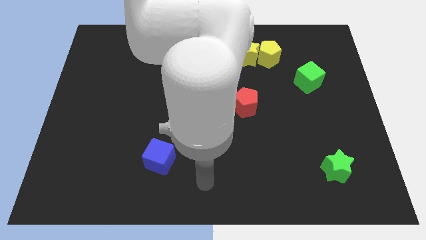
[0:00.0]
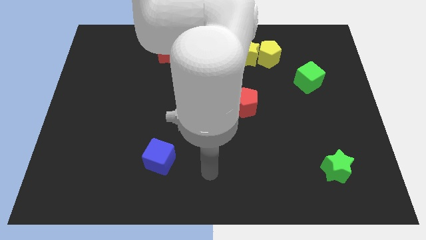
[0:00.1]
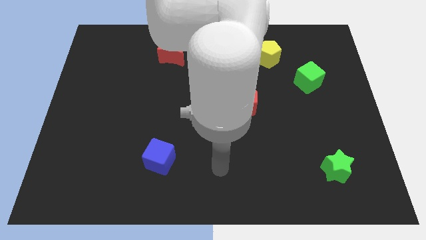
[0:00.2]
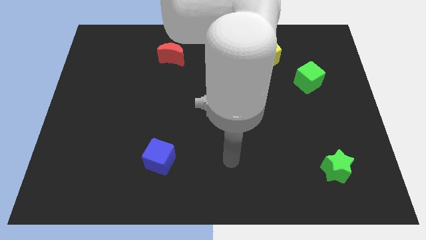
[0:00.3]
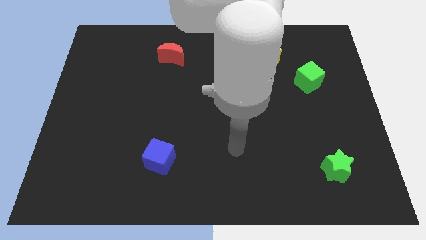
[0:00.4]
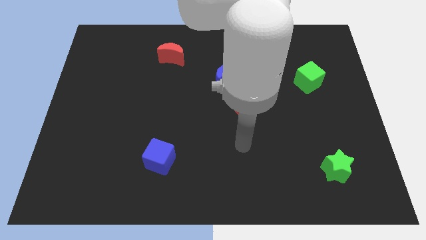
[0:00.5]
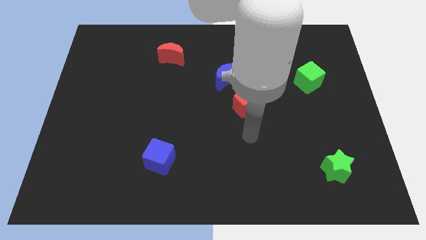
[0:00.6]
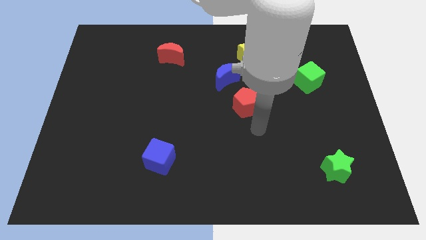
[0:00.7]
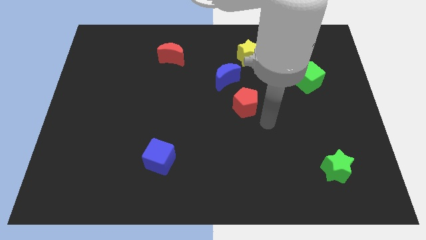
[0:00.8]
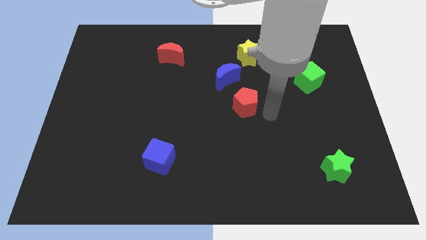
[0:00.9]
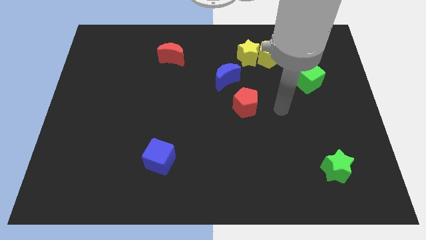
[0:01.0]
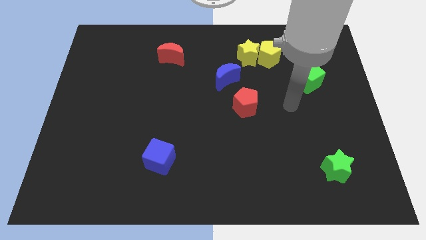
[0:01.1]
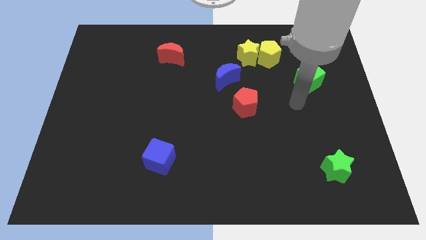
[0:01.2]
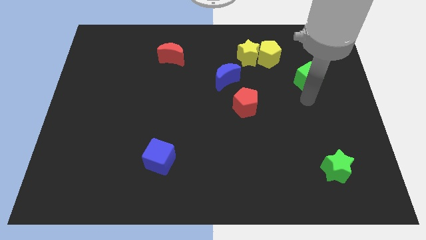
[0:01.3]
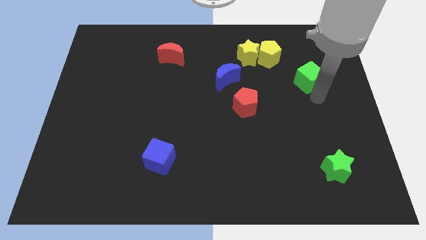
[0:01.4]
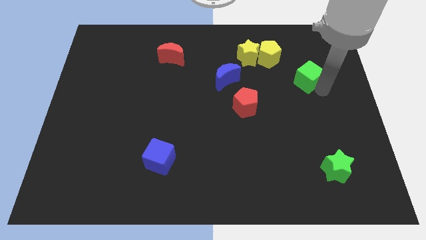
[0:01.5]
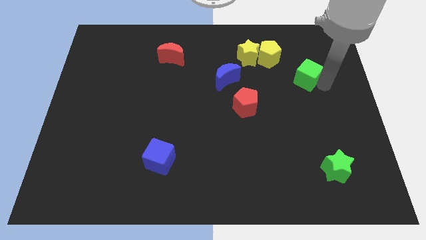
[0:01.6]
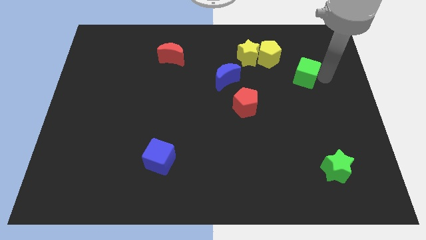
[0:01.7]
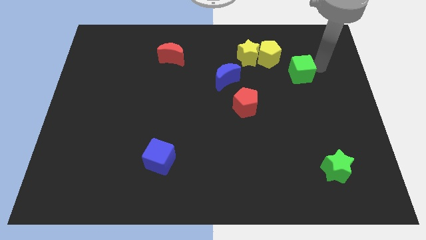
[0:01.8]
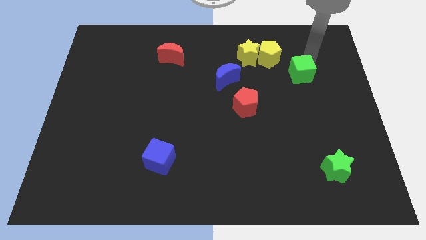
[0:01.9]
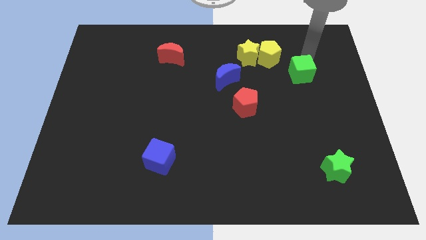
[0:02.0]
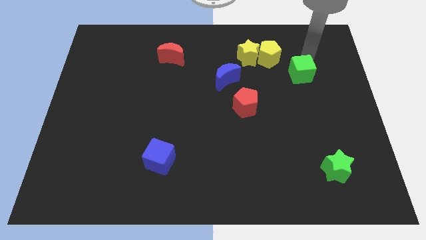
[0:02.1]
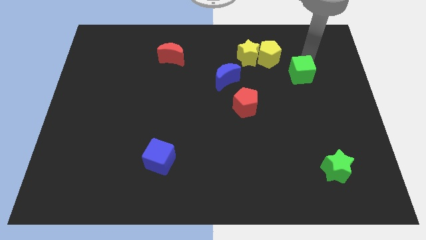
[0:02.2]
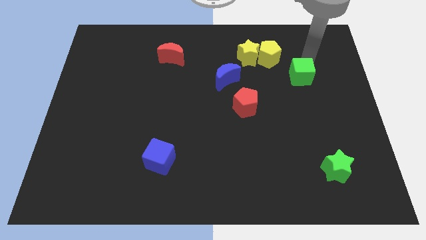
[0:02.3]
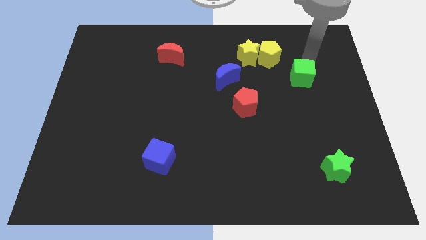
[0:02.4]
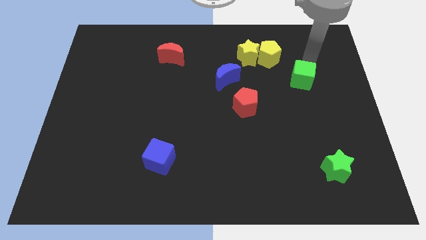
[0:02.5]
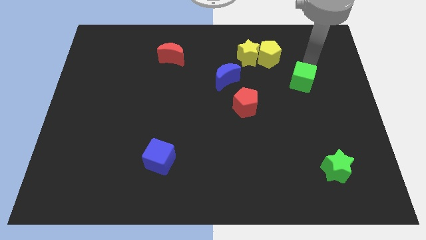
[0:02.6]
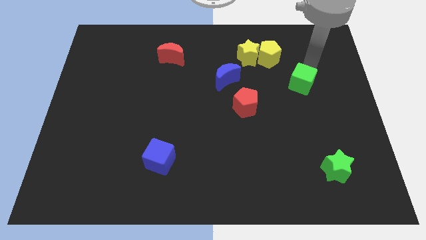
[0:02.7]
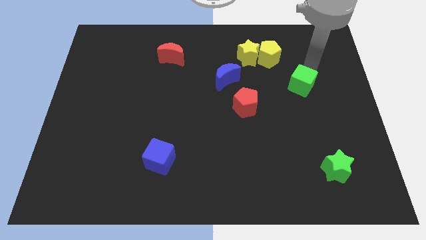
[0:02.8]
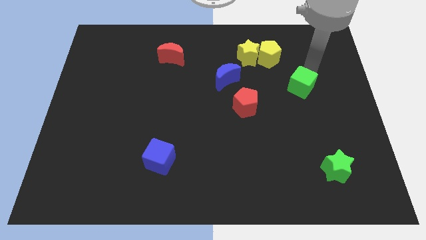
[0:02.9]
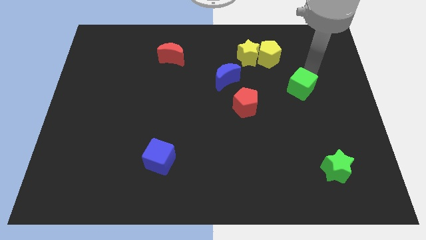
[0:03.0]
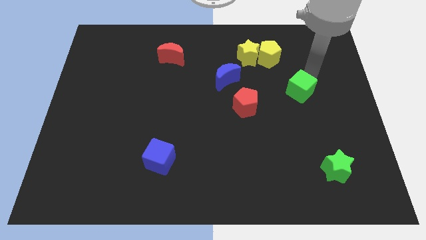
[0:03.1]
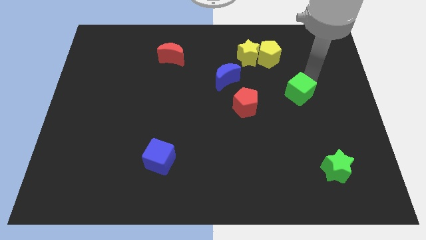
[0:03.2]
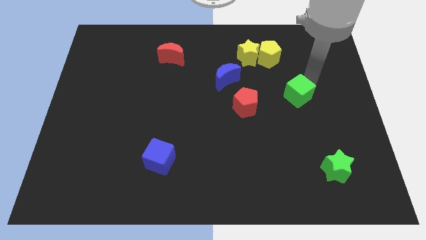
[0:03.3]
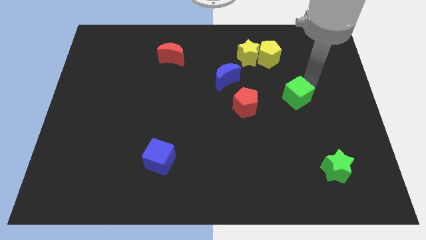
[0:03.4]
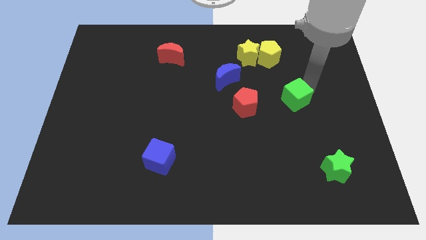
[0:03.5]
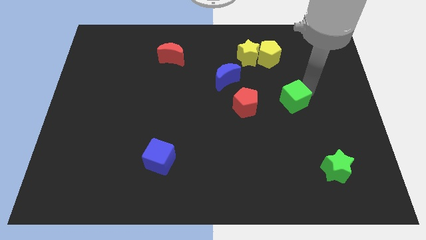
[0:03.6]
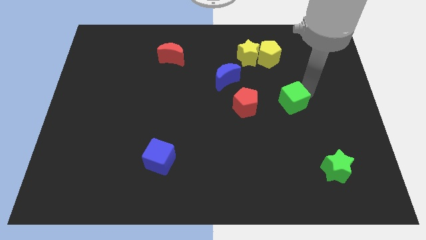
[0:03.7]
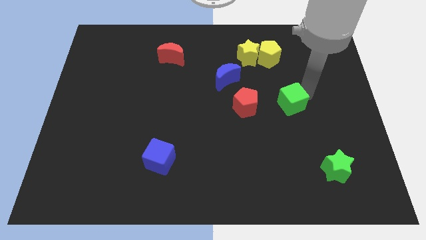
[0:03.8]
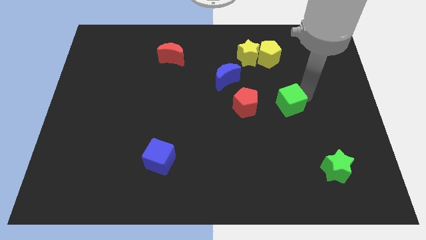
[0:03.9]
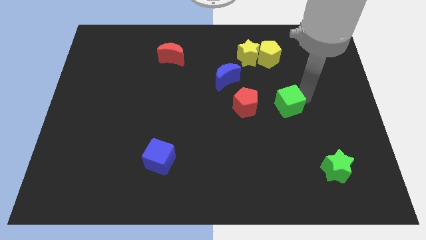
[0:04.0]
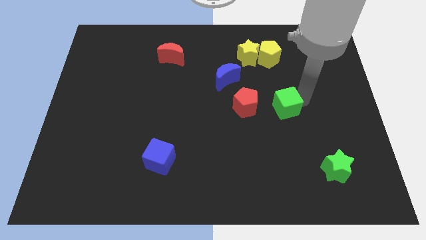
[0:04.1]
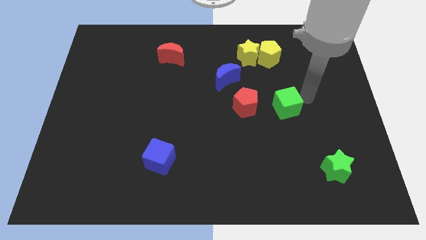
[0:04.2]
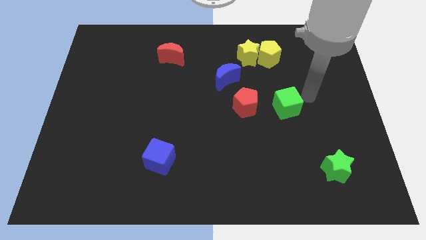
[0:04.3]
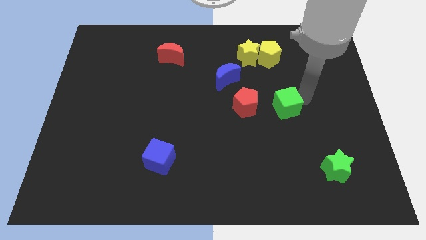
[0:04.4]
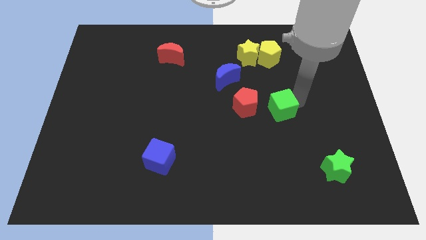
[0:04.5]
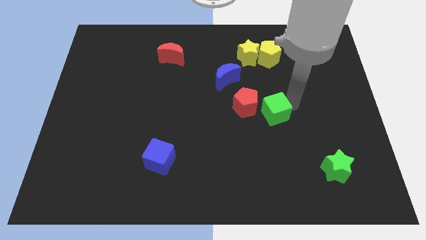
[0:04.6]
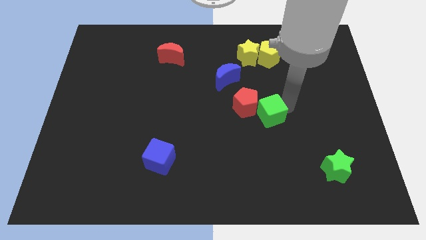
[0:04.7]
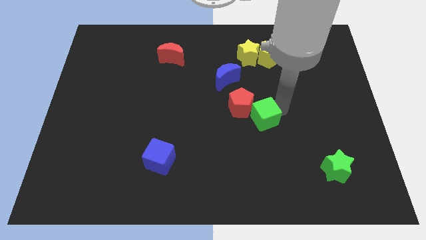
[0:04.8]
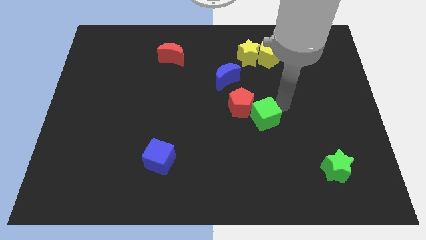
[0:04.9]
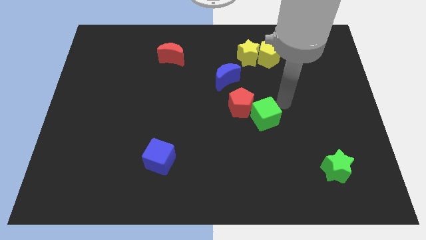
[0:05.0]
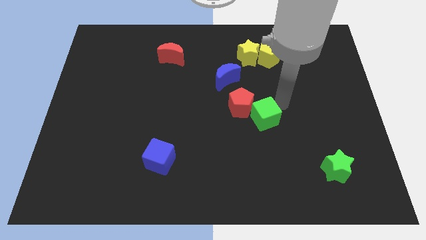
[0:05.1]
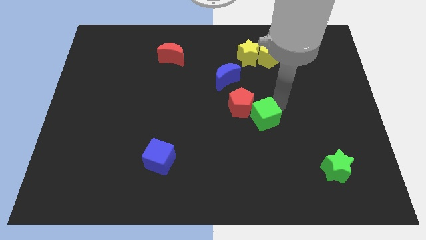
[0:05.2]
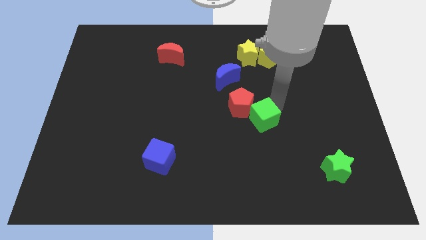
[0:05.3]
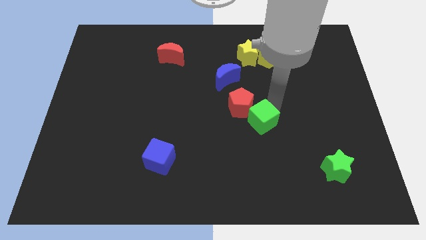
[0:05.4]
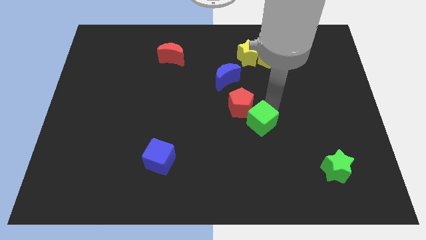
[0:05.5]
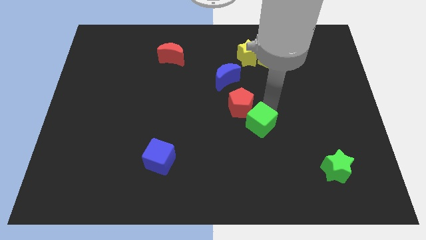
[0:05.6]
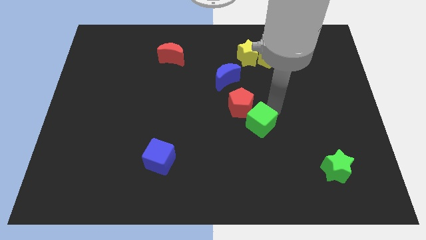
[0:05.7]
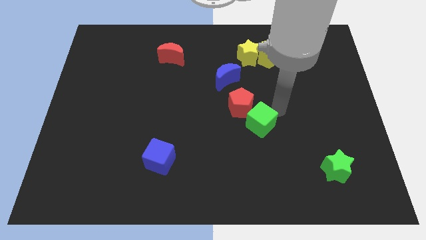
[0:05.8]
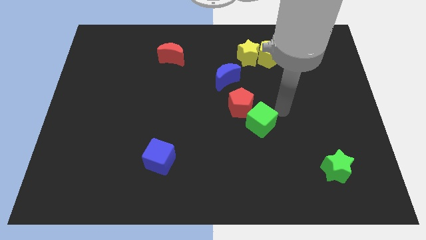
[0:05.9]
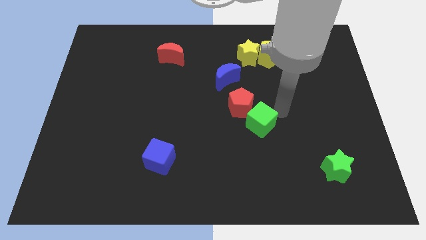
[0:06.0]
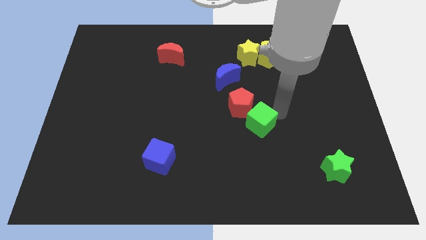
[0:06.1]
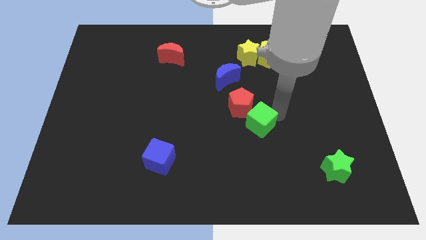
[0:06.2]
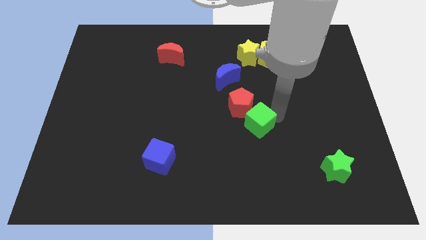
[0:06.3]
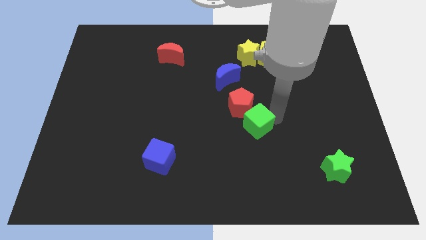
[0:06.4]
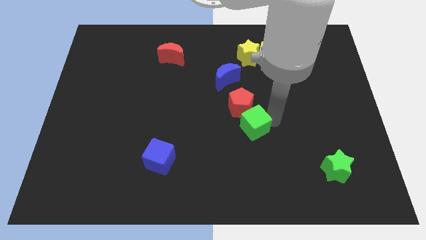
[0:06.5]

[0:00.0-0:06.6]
slide the green cube down and then left

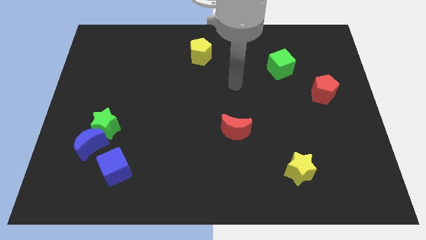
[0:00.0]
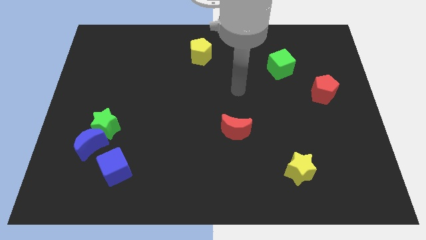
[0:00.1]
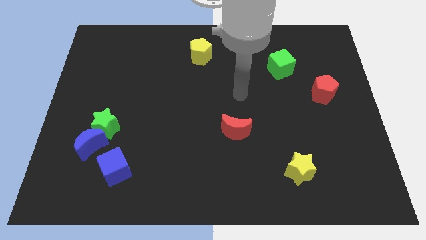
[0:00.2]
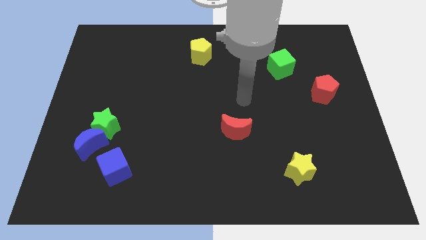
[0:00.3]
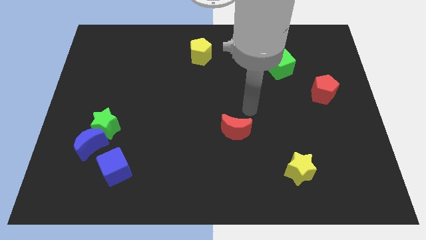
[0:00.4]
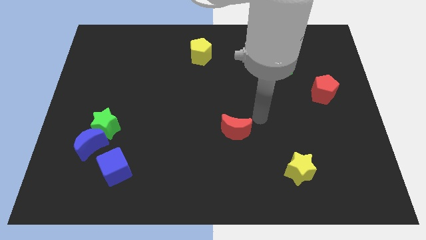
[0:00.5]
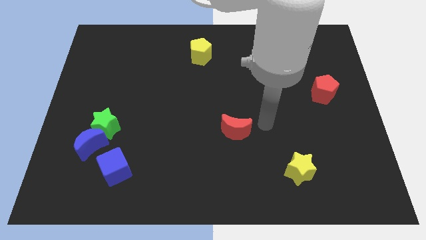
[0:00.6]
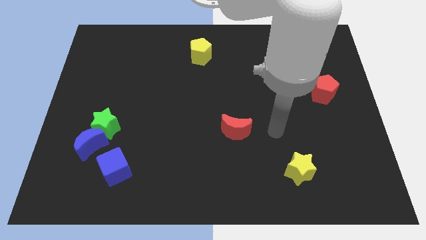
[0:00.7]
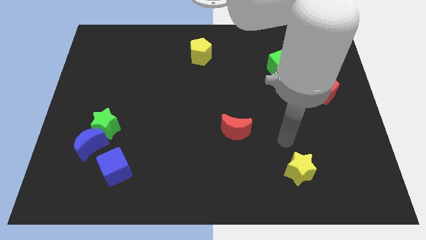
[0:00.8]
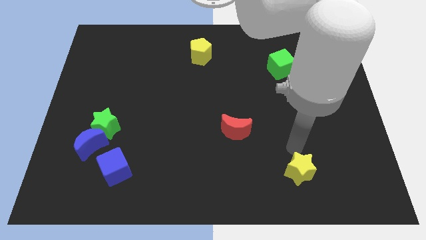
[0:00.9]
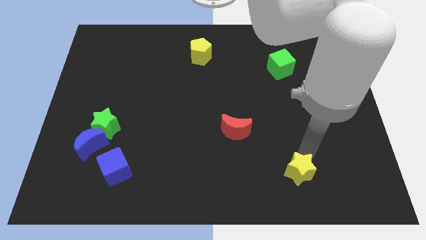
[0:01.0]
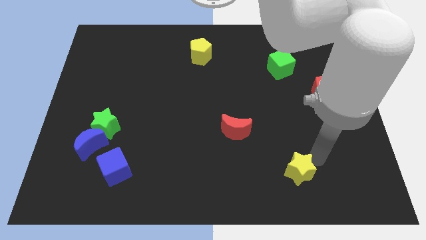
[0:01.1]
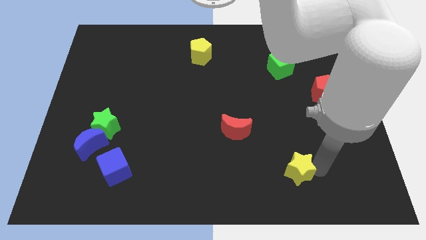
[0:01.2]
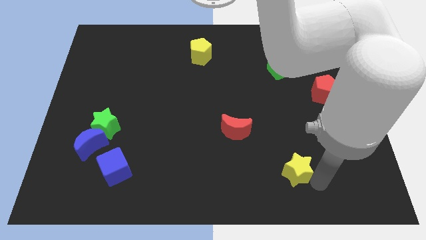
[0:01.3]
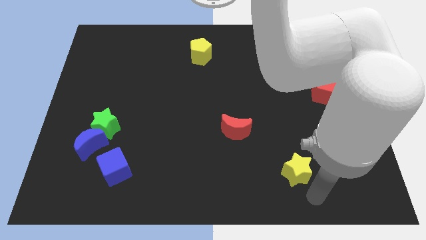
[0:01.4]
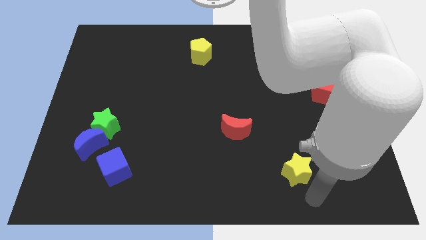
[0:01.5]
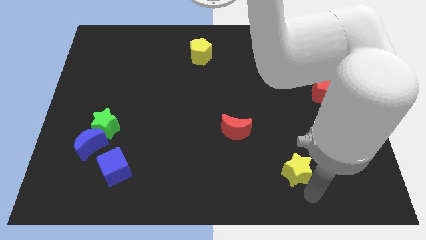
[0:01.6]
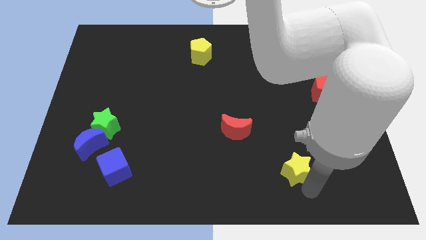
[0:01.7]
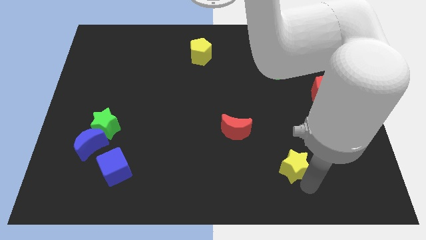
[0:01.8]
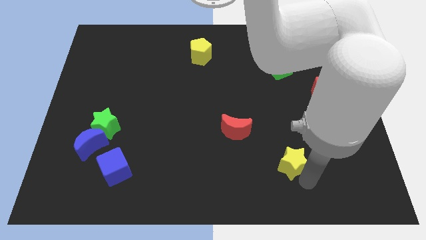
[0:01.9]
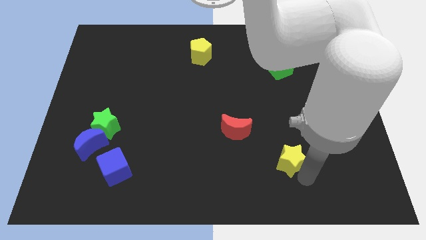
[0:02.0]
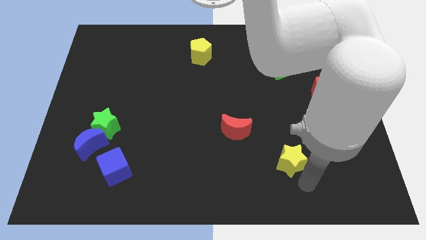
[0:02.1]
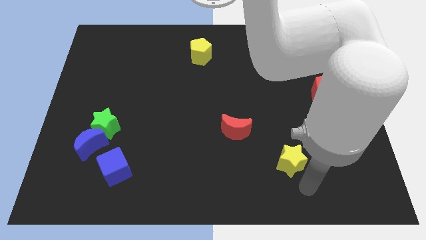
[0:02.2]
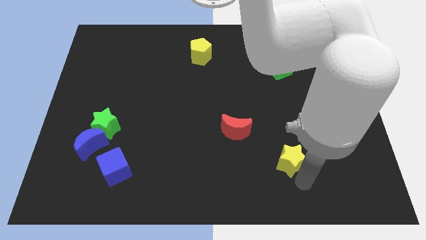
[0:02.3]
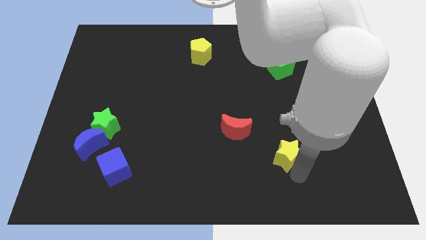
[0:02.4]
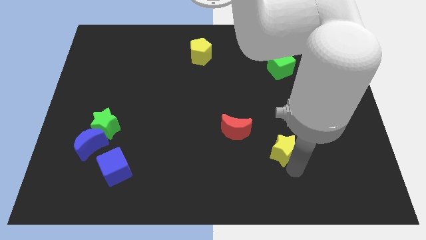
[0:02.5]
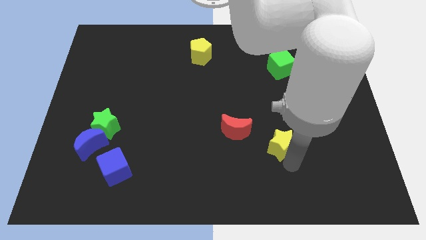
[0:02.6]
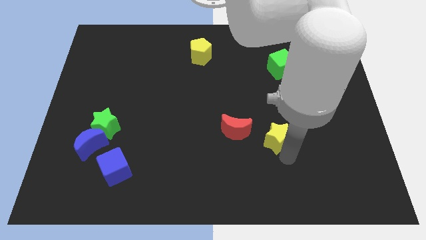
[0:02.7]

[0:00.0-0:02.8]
move the yellow star up and to the left diagonally a bit
